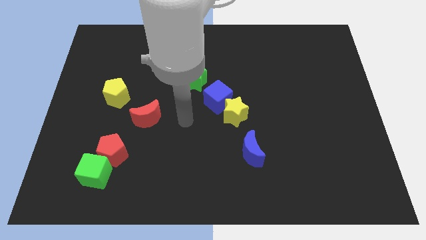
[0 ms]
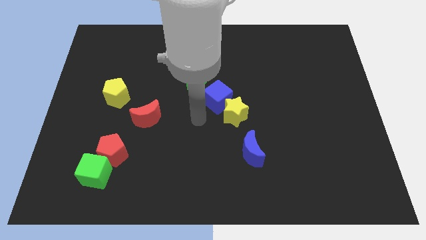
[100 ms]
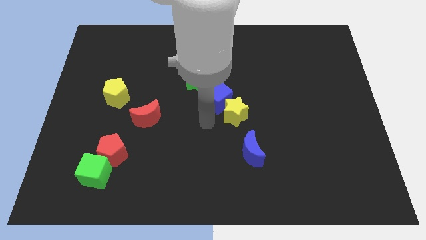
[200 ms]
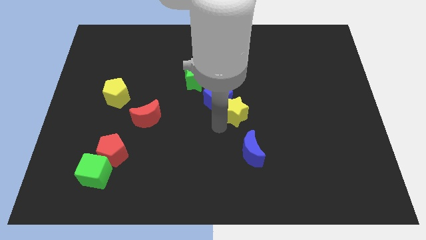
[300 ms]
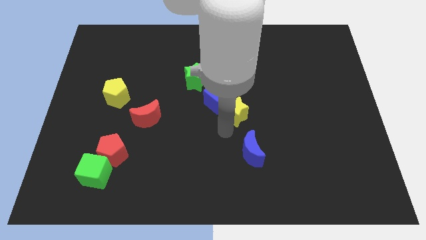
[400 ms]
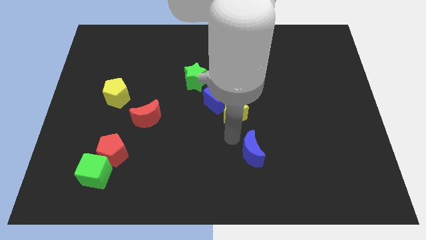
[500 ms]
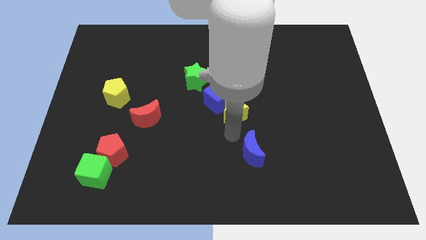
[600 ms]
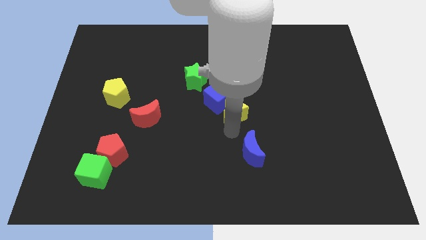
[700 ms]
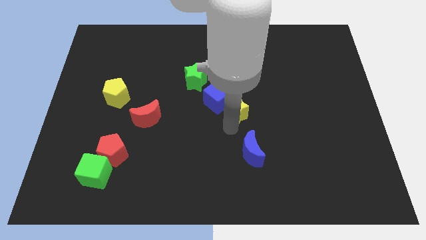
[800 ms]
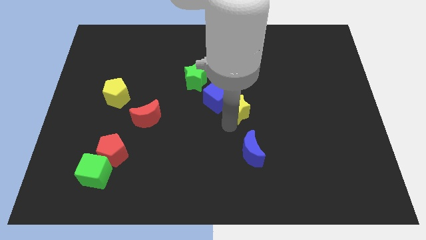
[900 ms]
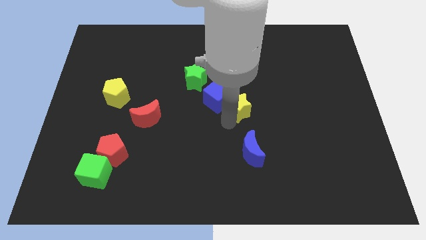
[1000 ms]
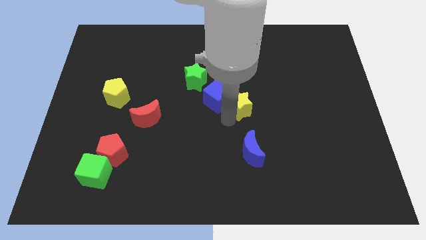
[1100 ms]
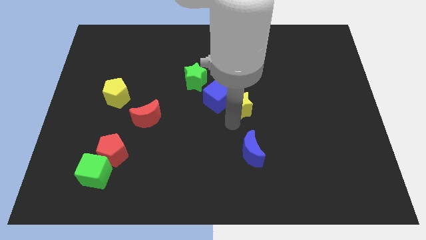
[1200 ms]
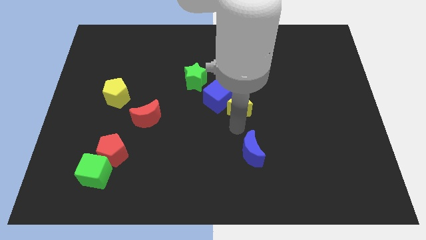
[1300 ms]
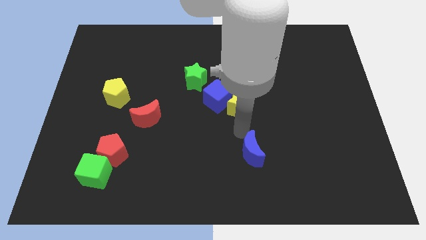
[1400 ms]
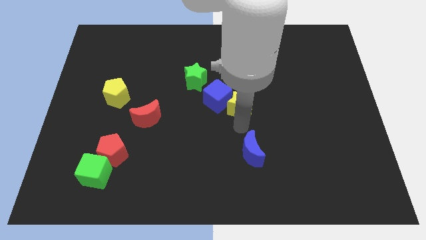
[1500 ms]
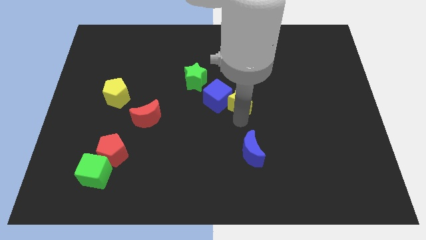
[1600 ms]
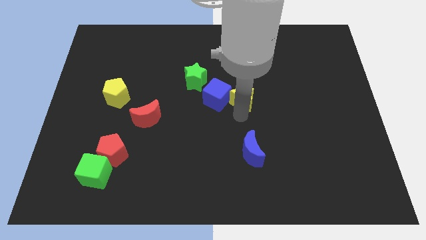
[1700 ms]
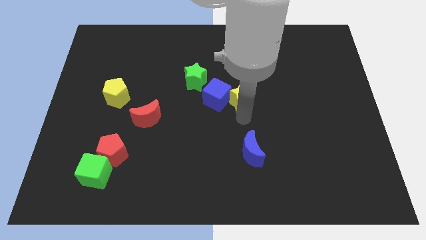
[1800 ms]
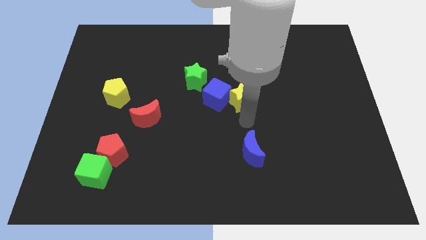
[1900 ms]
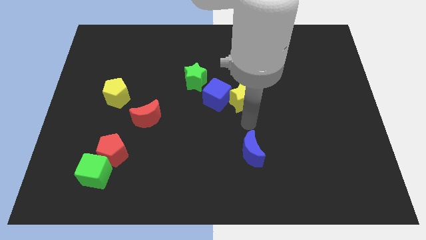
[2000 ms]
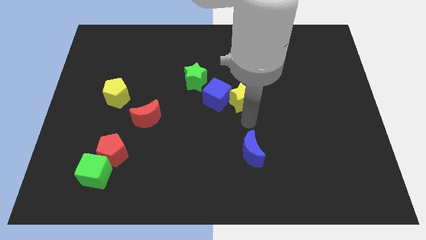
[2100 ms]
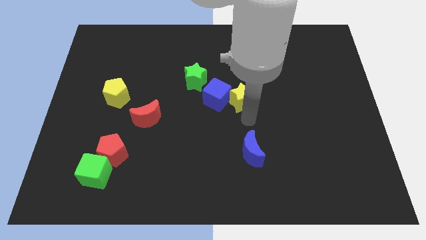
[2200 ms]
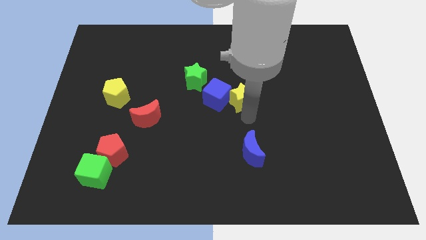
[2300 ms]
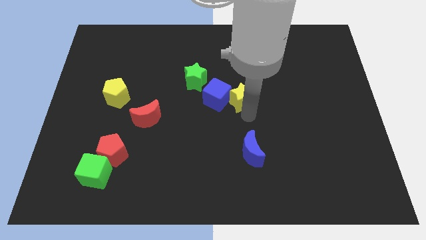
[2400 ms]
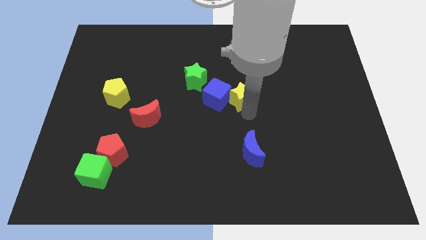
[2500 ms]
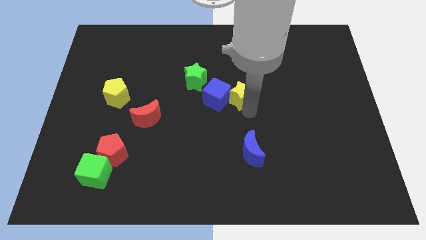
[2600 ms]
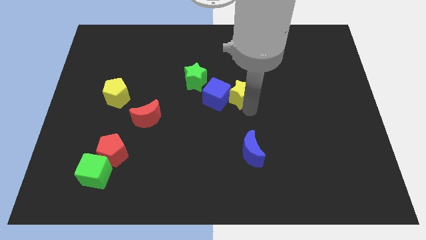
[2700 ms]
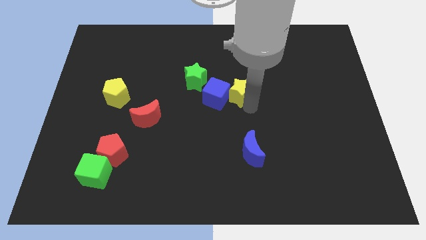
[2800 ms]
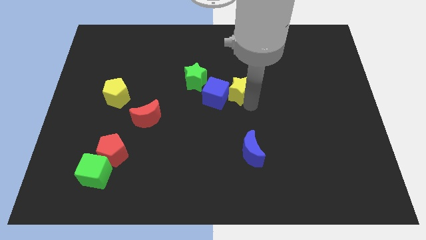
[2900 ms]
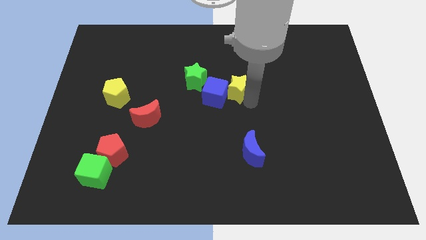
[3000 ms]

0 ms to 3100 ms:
slide the yellow star up somewhat

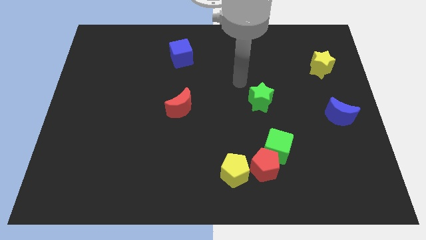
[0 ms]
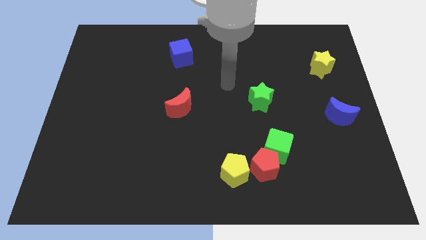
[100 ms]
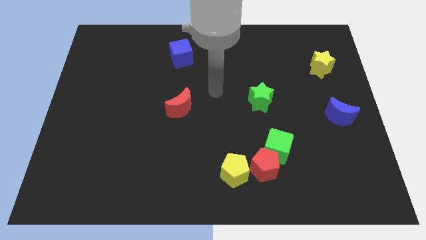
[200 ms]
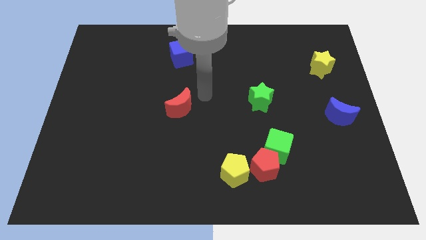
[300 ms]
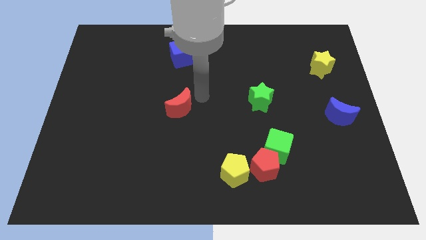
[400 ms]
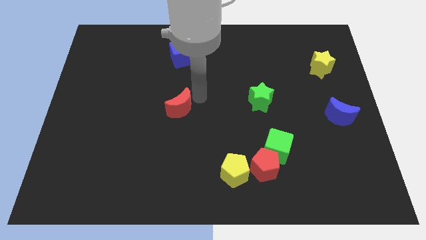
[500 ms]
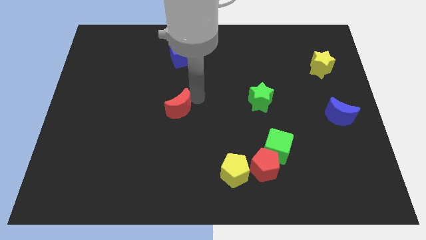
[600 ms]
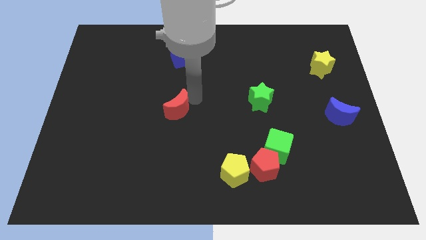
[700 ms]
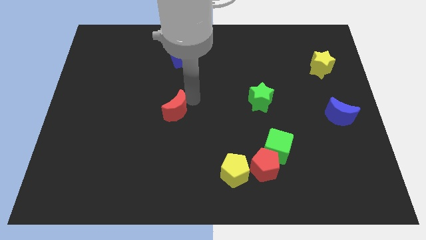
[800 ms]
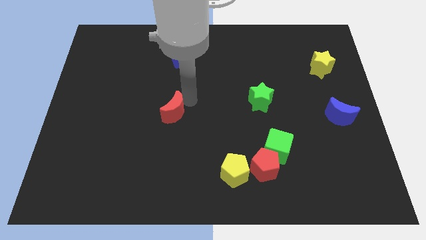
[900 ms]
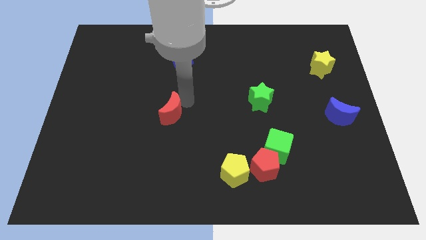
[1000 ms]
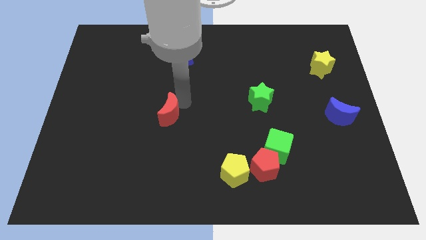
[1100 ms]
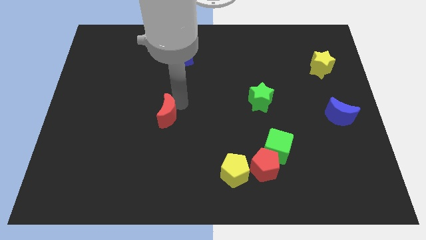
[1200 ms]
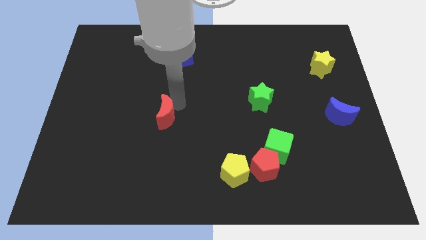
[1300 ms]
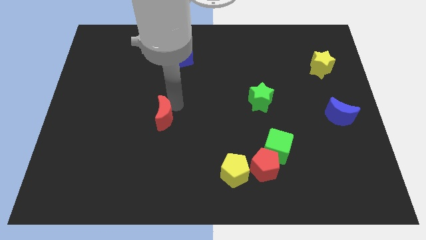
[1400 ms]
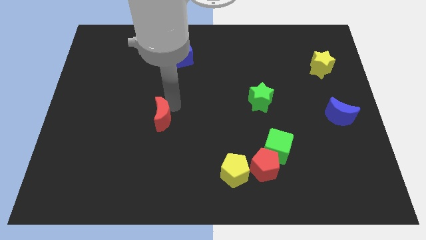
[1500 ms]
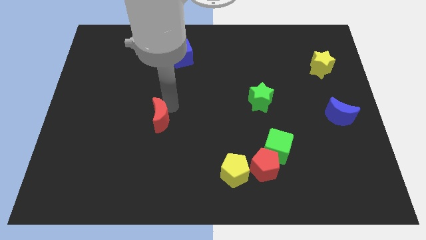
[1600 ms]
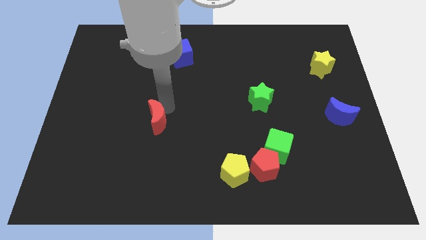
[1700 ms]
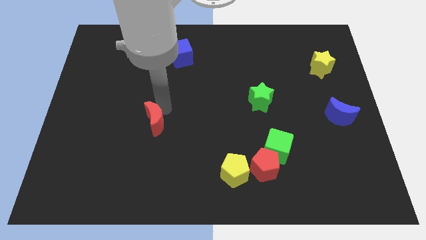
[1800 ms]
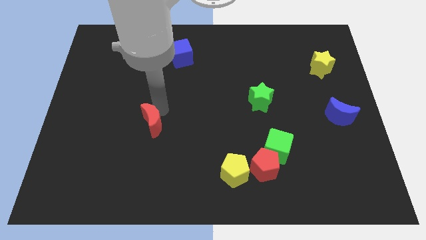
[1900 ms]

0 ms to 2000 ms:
push the red moon slightly downwards and left diagonally

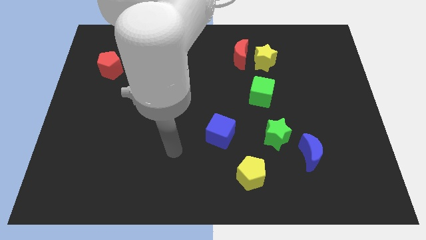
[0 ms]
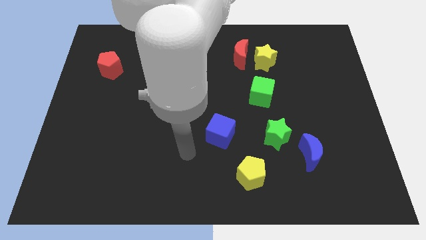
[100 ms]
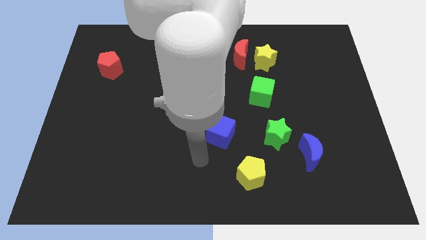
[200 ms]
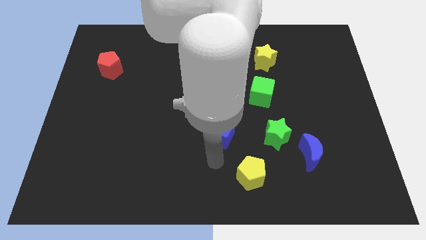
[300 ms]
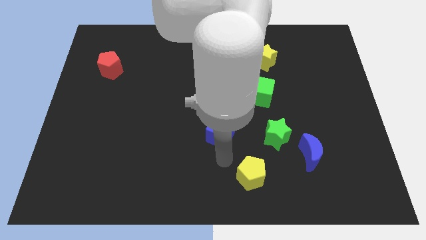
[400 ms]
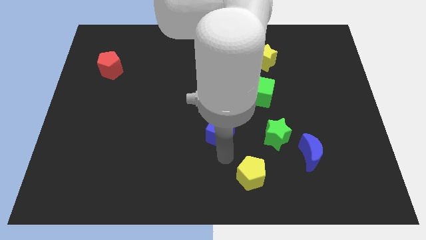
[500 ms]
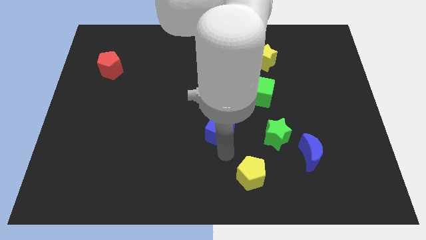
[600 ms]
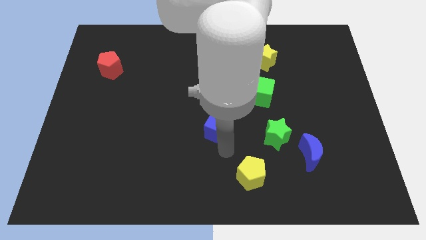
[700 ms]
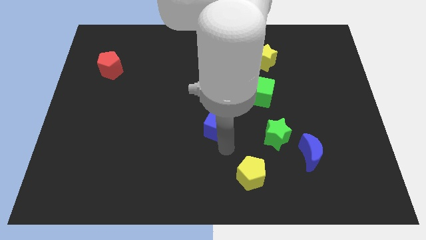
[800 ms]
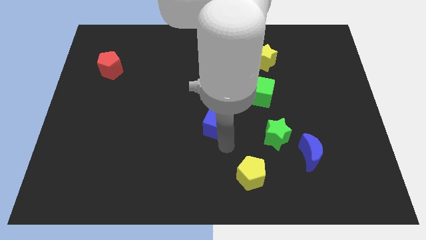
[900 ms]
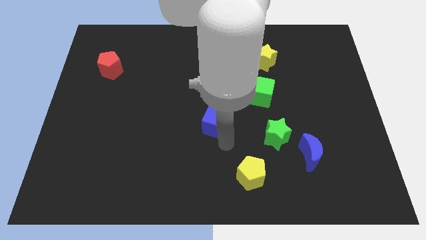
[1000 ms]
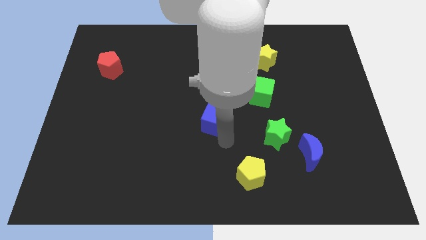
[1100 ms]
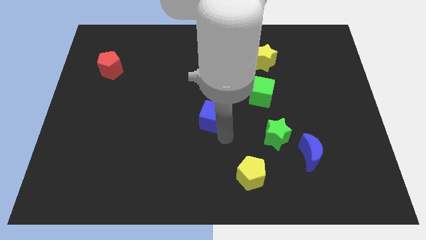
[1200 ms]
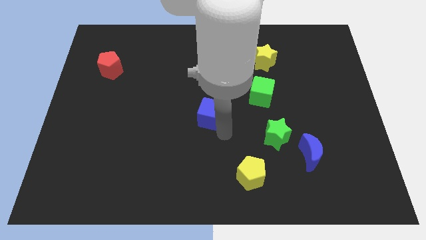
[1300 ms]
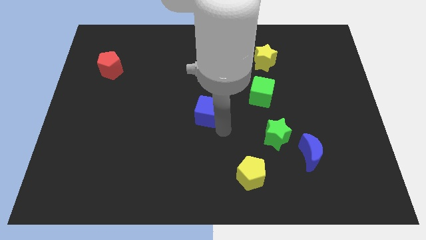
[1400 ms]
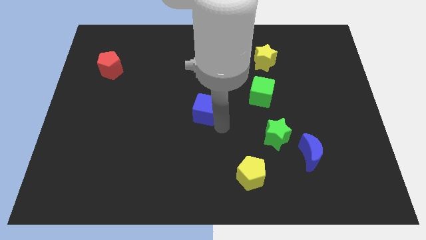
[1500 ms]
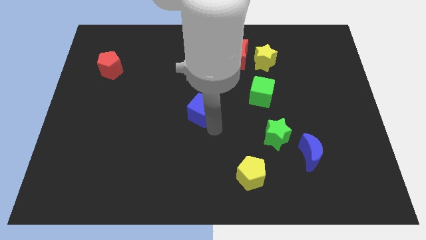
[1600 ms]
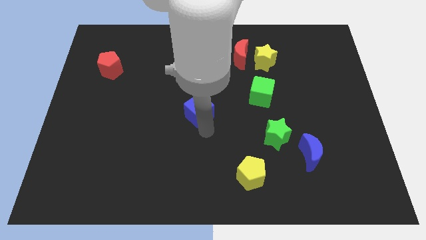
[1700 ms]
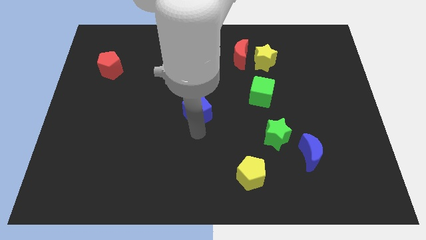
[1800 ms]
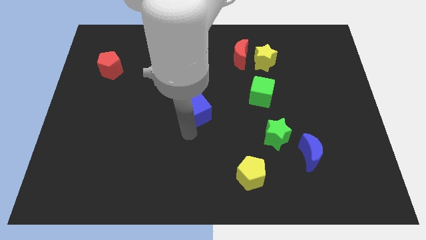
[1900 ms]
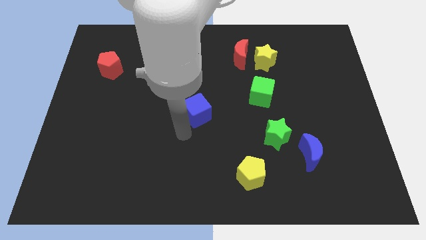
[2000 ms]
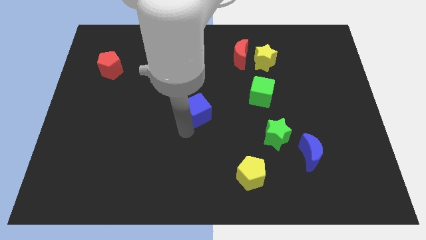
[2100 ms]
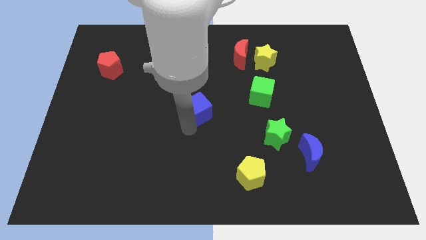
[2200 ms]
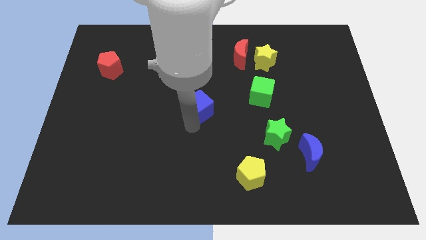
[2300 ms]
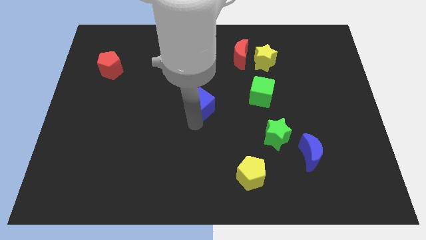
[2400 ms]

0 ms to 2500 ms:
slightly move the blue cube up

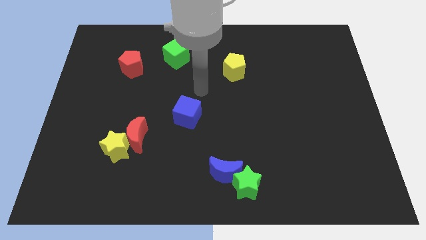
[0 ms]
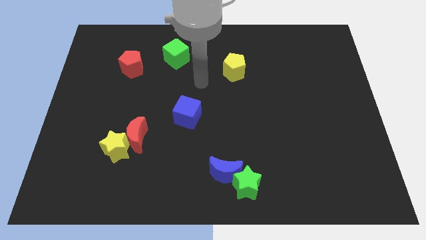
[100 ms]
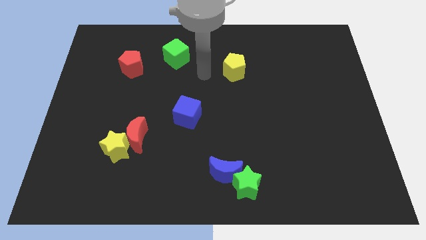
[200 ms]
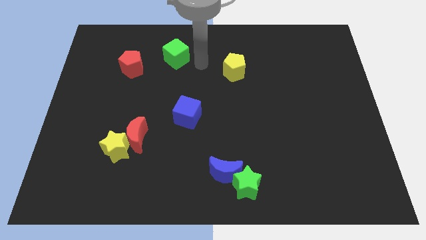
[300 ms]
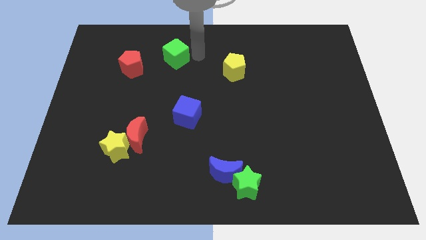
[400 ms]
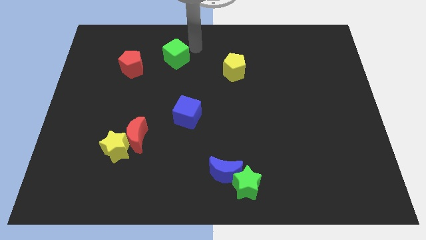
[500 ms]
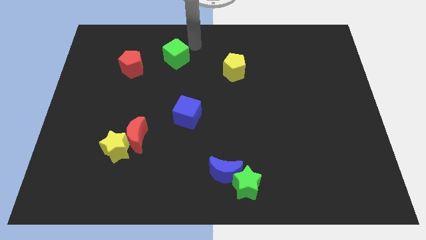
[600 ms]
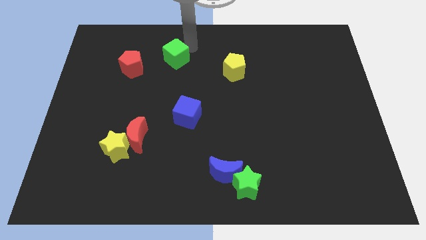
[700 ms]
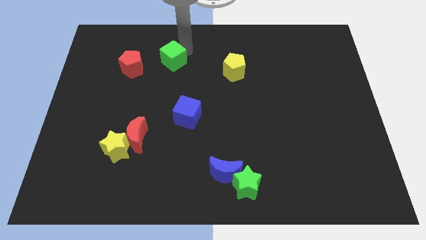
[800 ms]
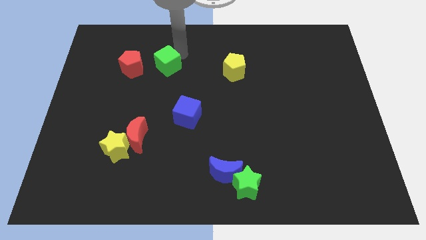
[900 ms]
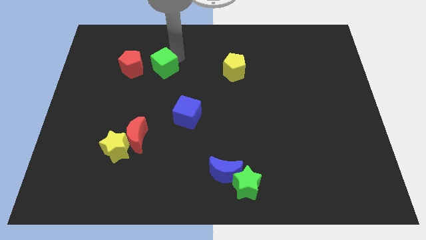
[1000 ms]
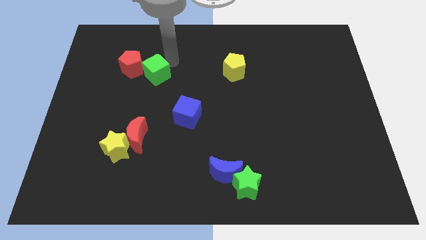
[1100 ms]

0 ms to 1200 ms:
push the green cube a bit diagonally down and to the left
